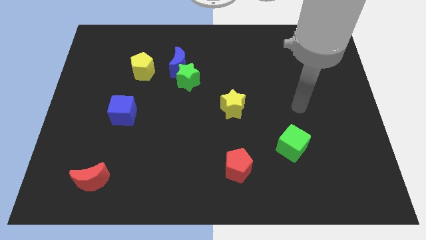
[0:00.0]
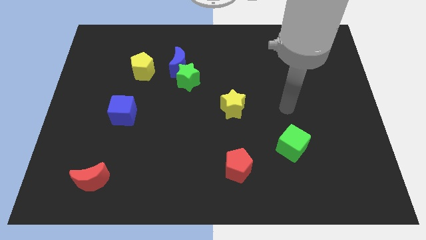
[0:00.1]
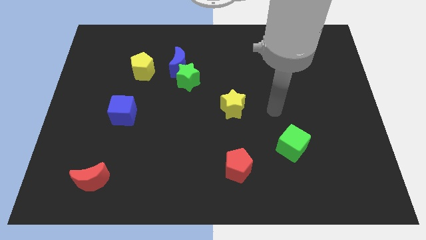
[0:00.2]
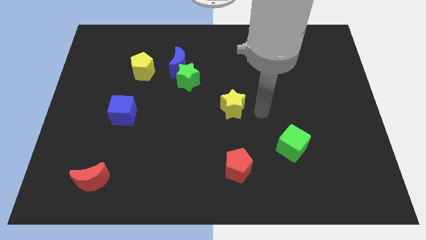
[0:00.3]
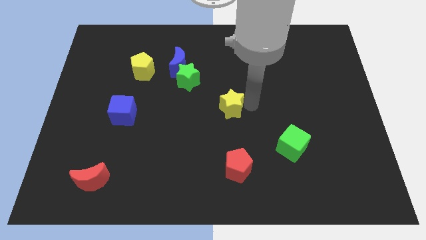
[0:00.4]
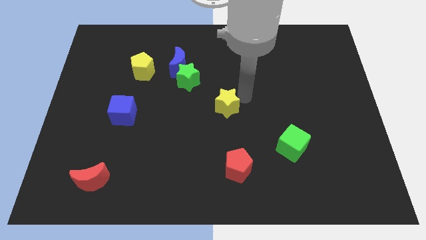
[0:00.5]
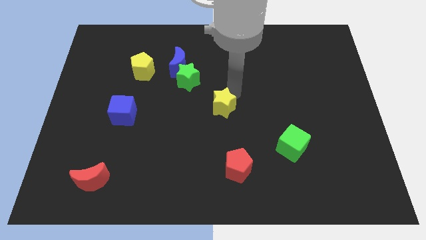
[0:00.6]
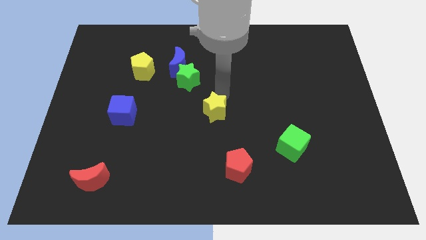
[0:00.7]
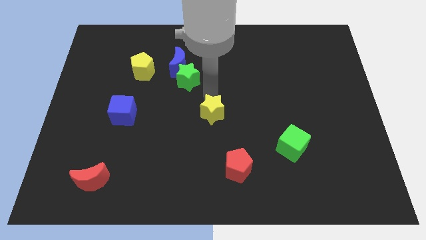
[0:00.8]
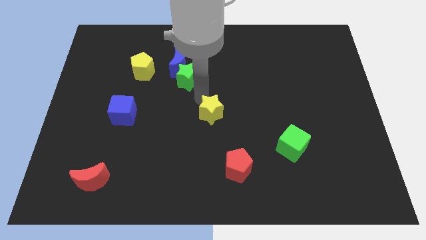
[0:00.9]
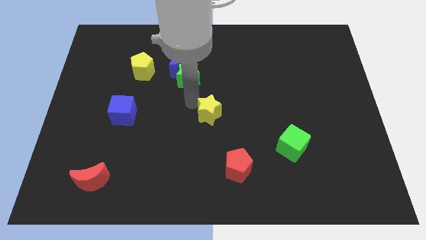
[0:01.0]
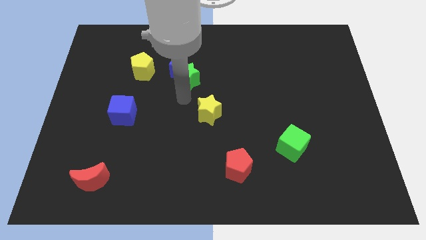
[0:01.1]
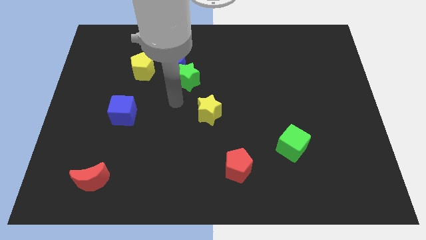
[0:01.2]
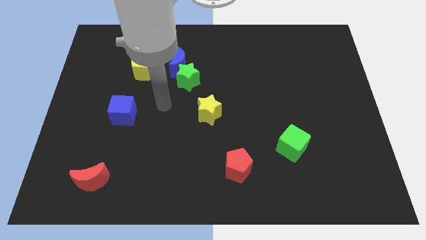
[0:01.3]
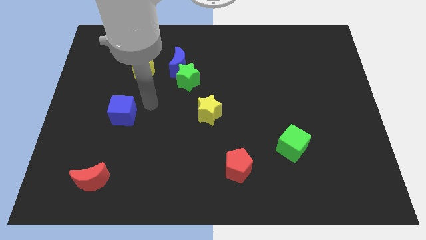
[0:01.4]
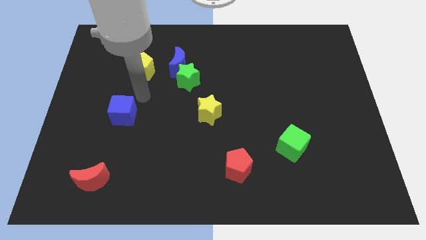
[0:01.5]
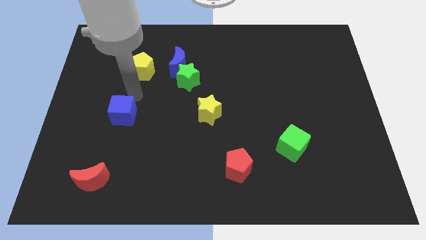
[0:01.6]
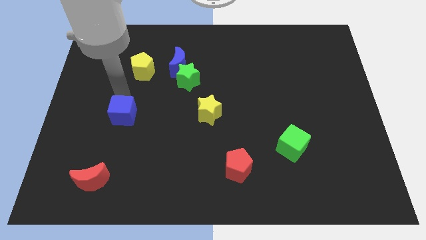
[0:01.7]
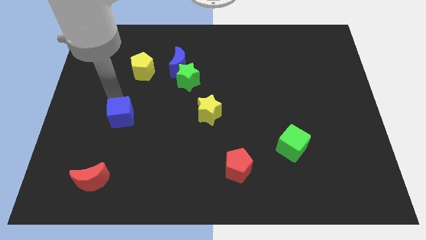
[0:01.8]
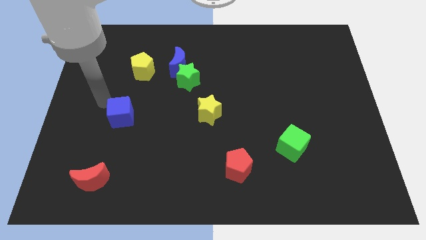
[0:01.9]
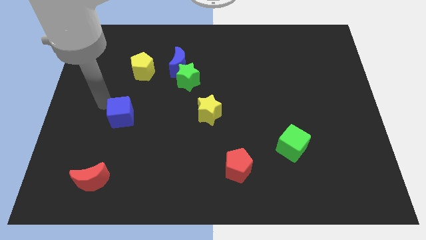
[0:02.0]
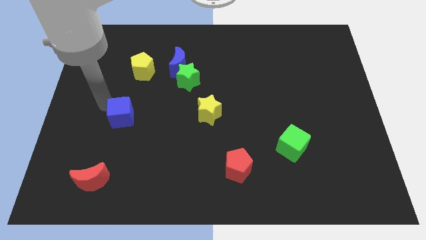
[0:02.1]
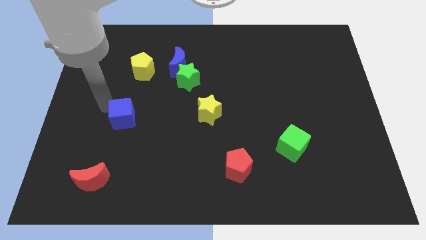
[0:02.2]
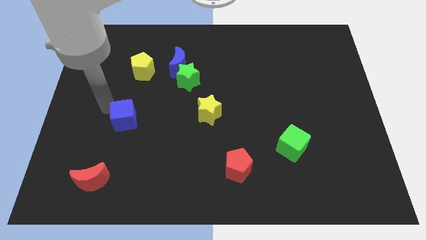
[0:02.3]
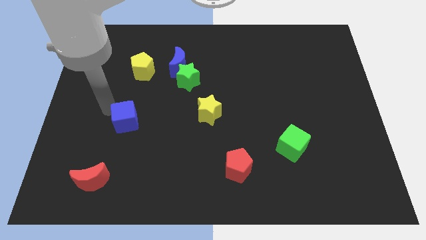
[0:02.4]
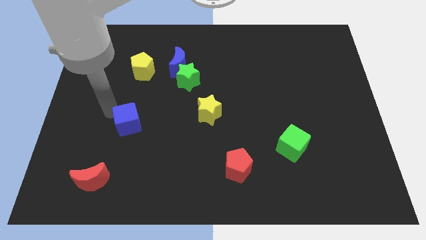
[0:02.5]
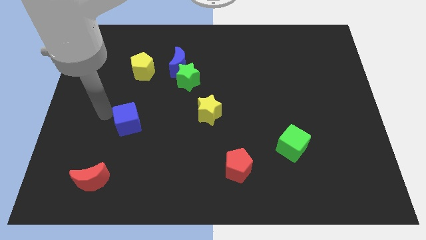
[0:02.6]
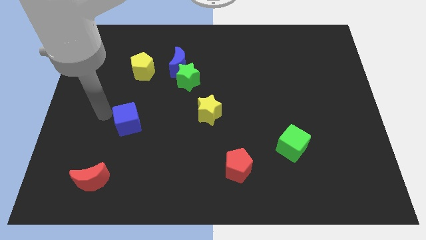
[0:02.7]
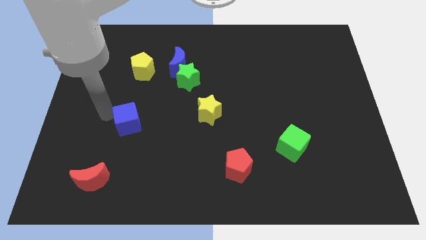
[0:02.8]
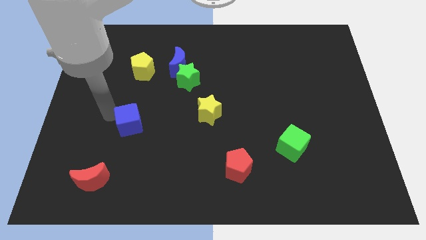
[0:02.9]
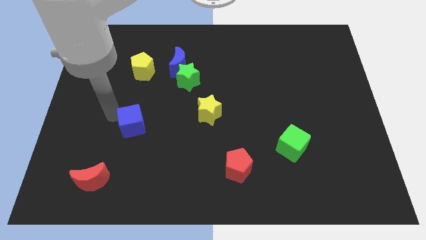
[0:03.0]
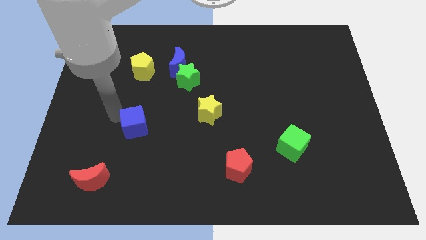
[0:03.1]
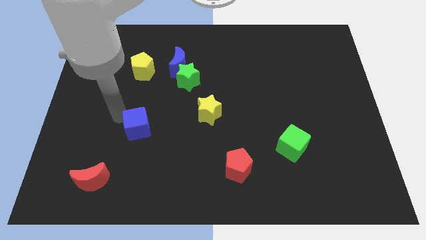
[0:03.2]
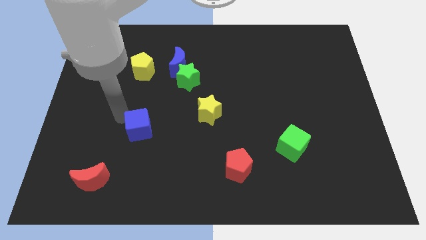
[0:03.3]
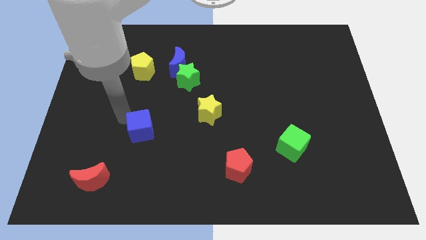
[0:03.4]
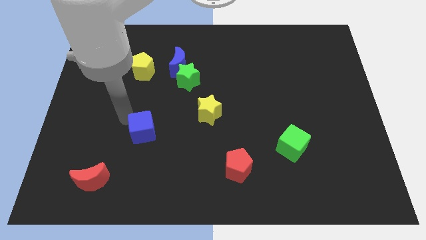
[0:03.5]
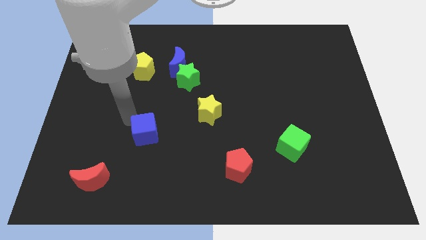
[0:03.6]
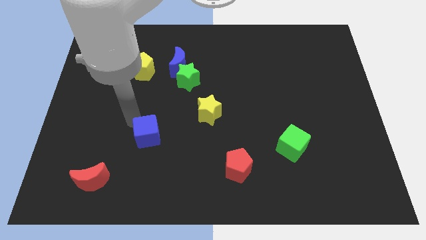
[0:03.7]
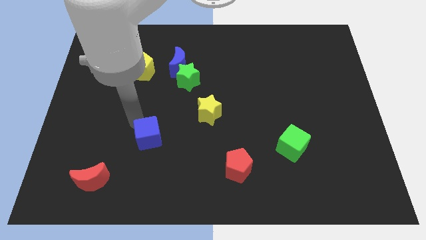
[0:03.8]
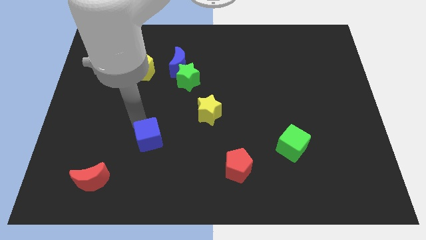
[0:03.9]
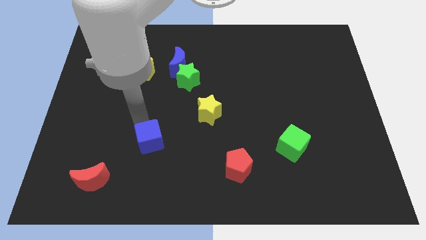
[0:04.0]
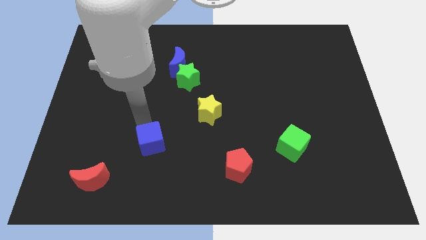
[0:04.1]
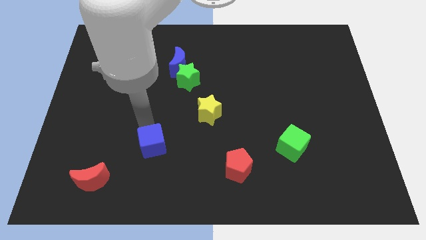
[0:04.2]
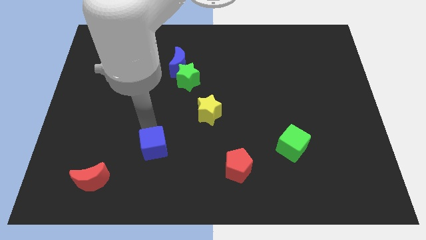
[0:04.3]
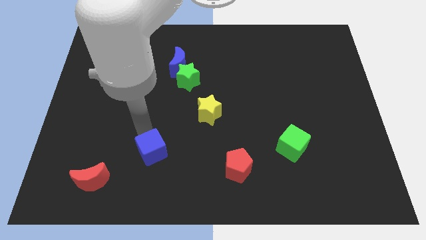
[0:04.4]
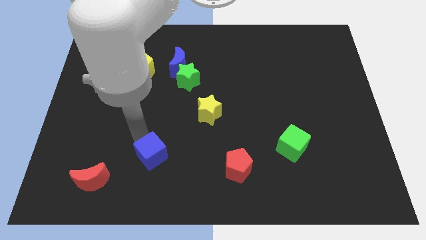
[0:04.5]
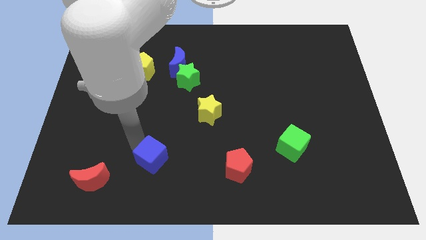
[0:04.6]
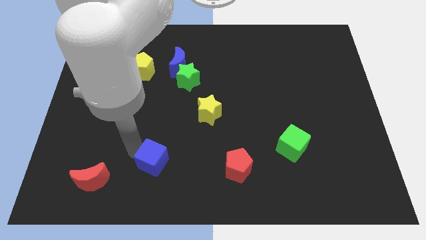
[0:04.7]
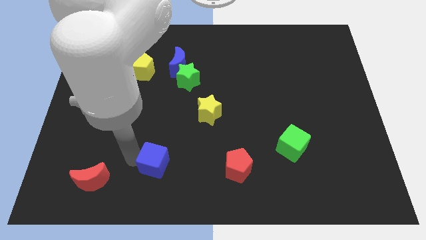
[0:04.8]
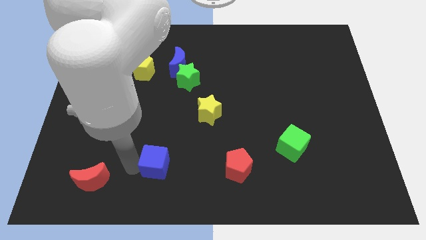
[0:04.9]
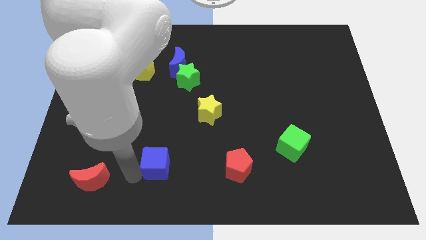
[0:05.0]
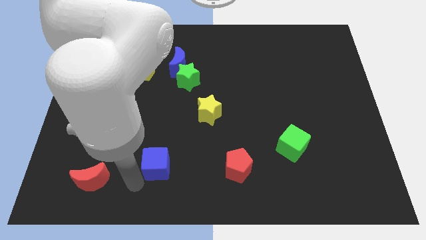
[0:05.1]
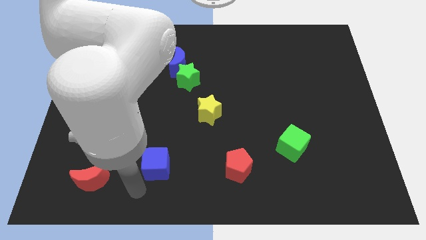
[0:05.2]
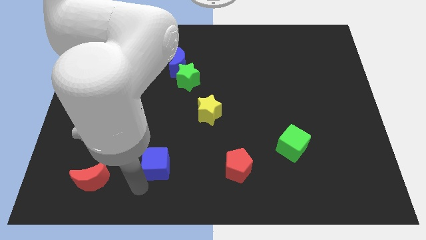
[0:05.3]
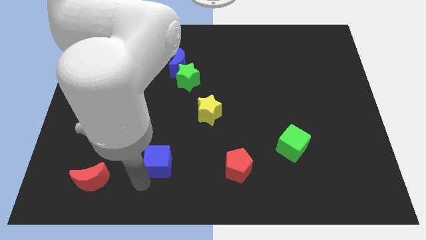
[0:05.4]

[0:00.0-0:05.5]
move the blue cube to the left side of the red pentagon

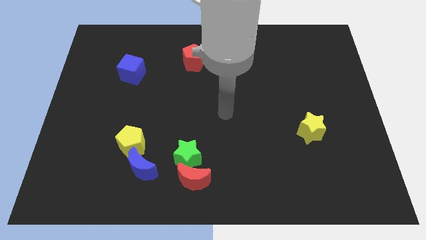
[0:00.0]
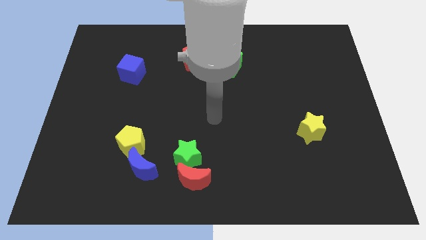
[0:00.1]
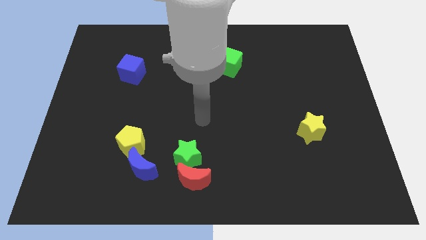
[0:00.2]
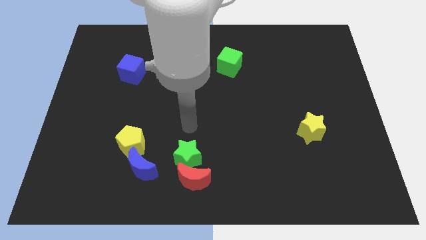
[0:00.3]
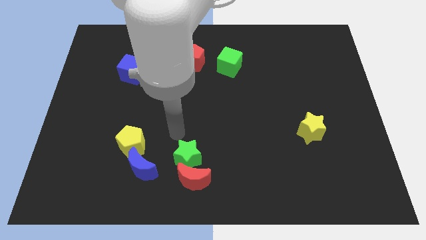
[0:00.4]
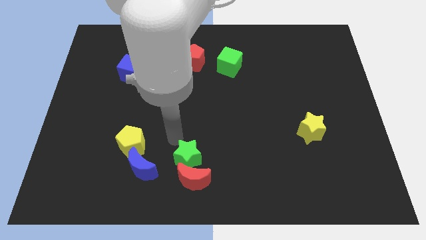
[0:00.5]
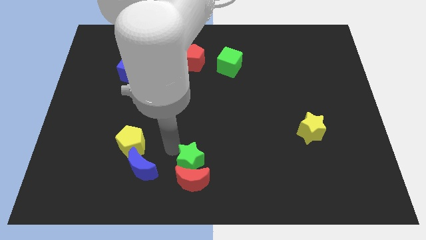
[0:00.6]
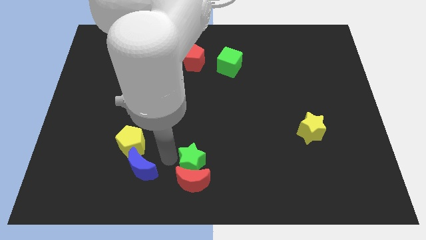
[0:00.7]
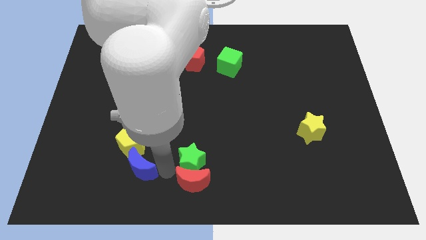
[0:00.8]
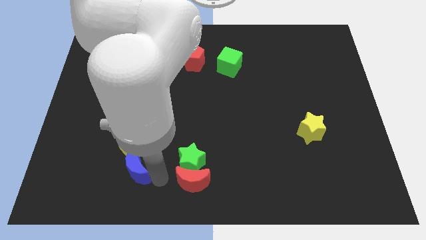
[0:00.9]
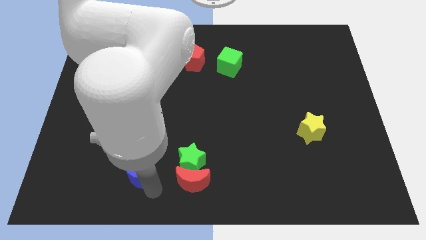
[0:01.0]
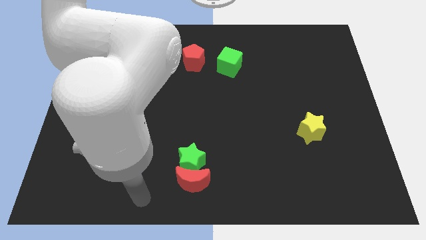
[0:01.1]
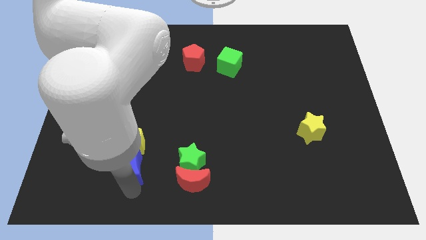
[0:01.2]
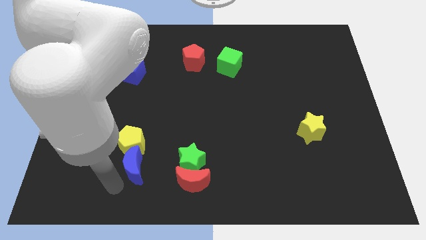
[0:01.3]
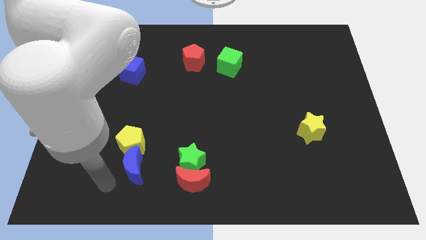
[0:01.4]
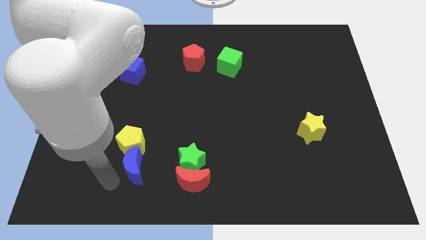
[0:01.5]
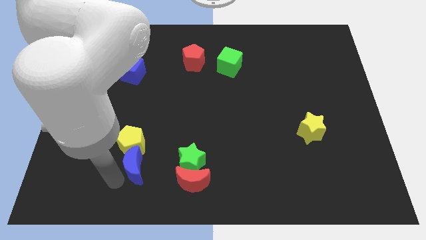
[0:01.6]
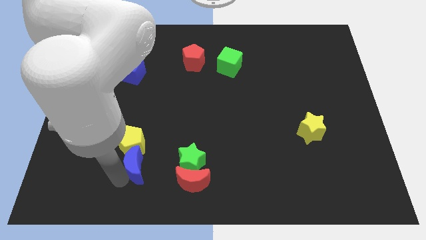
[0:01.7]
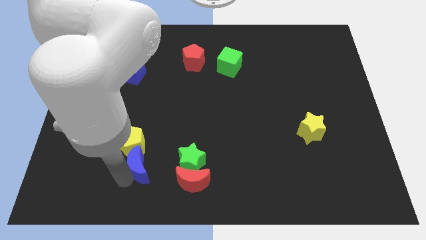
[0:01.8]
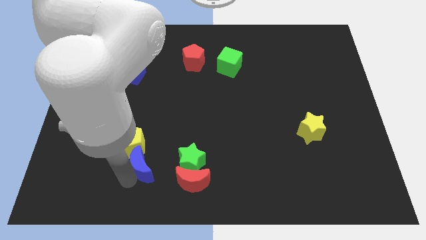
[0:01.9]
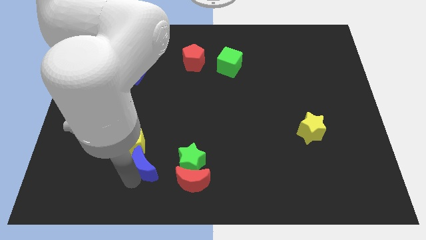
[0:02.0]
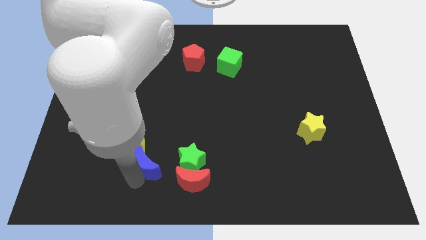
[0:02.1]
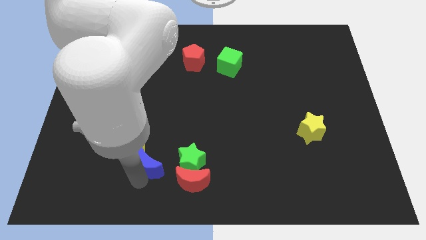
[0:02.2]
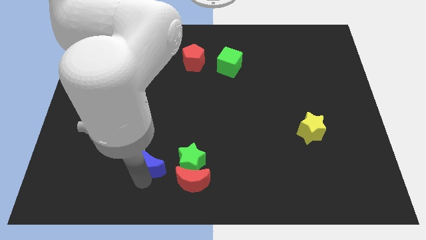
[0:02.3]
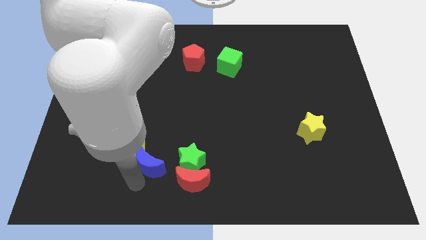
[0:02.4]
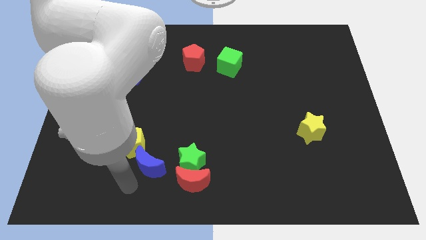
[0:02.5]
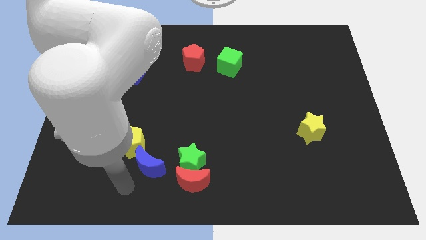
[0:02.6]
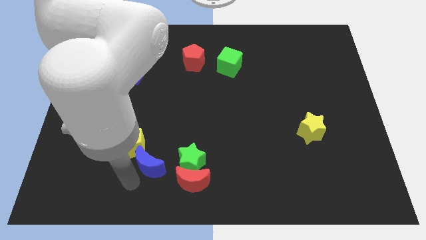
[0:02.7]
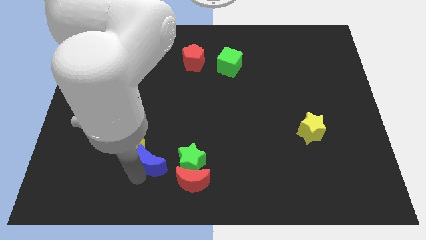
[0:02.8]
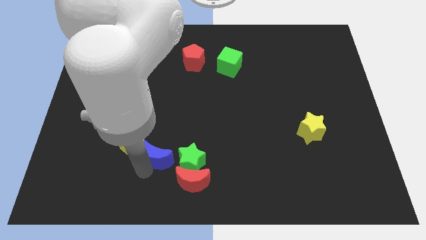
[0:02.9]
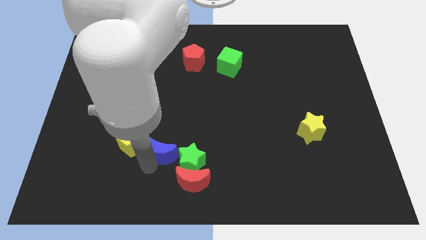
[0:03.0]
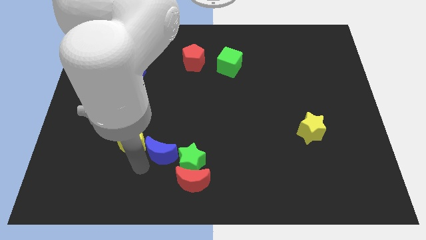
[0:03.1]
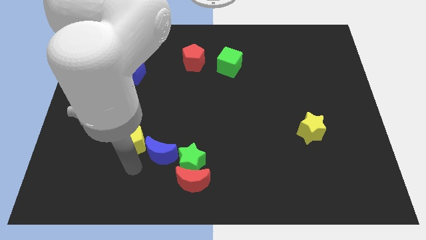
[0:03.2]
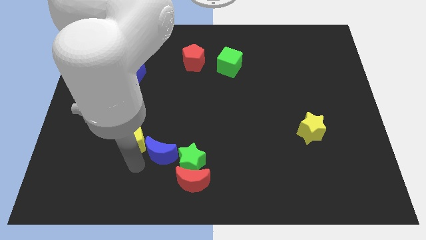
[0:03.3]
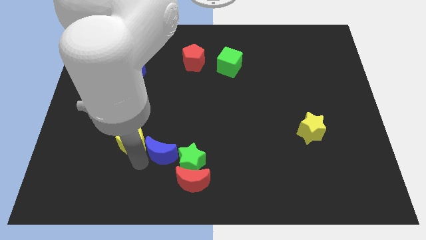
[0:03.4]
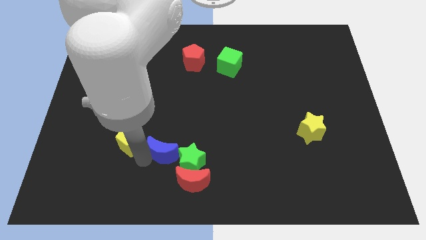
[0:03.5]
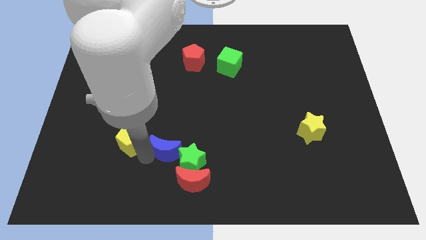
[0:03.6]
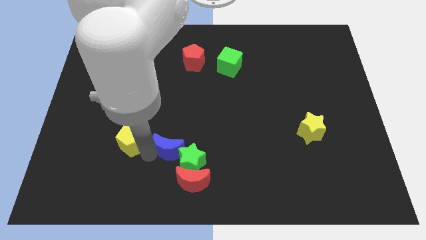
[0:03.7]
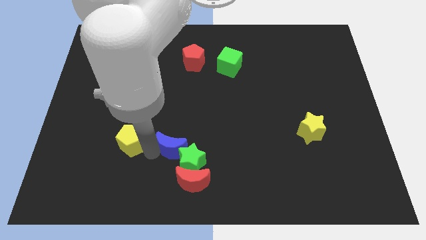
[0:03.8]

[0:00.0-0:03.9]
slide the blue moon to the top of the red moon
